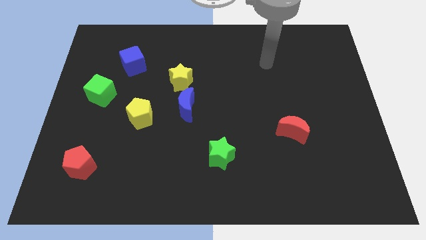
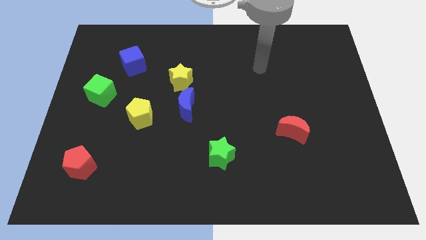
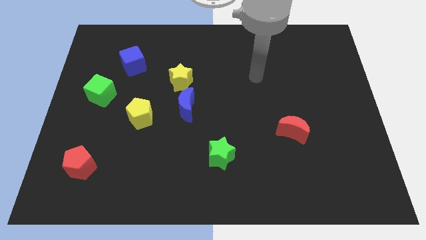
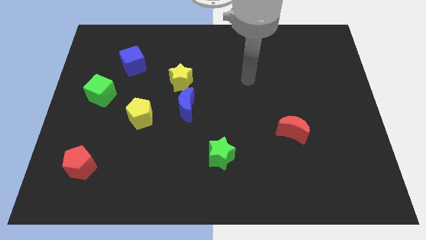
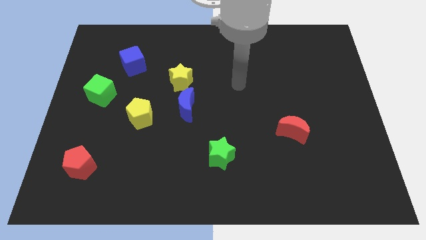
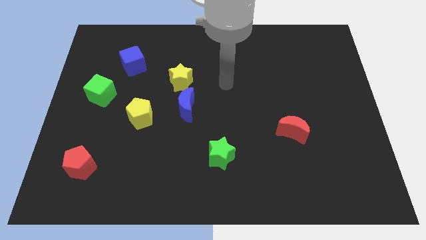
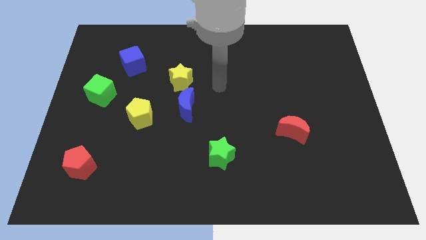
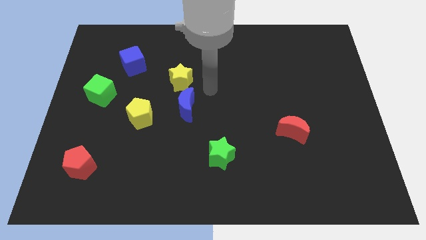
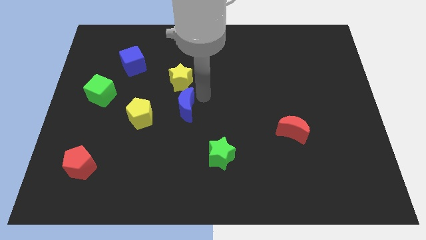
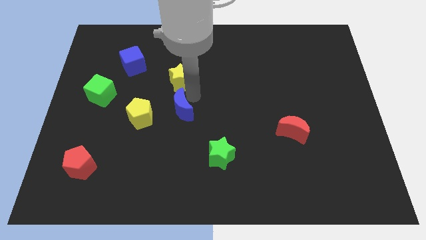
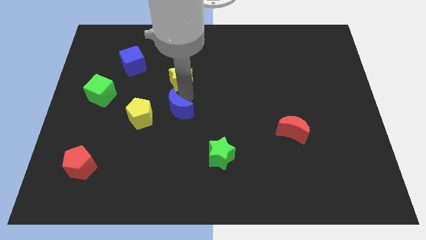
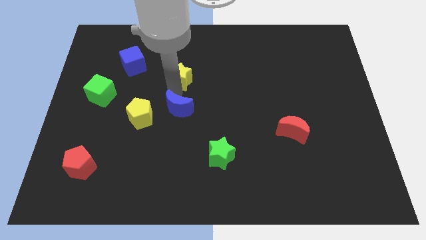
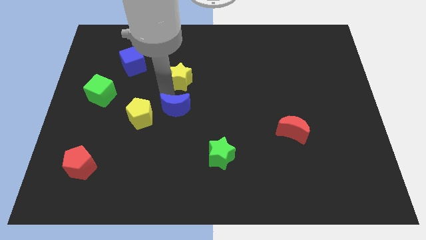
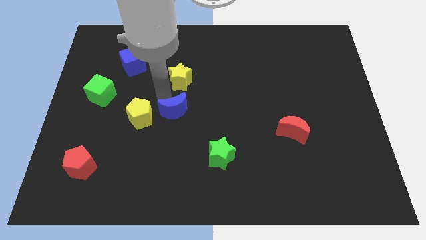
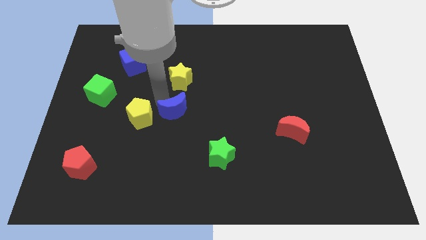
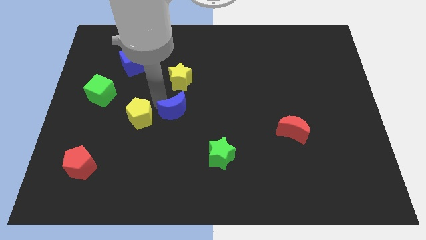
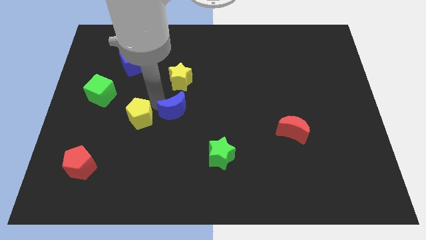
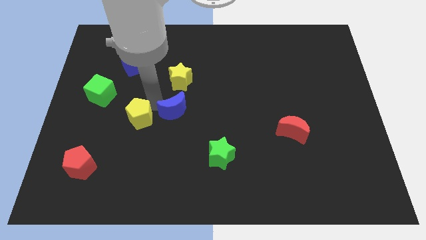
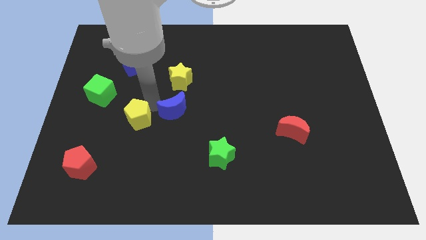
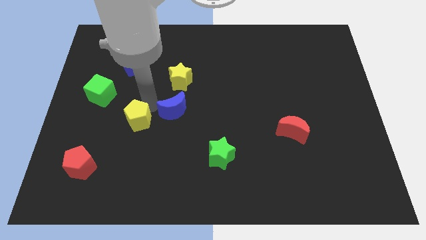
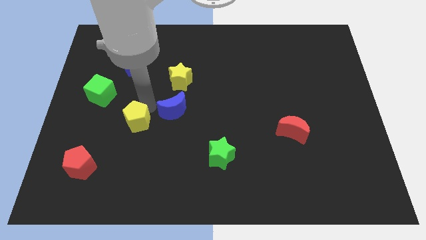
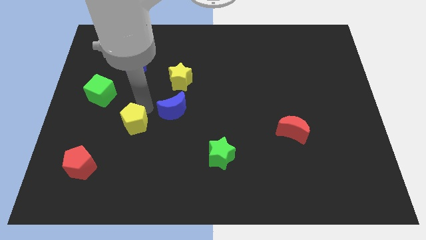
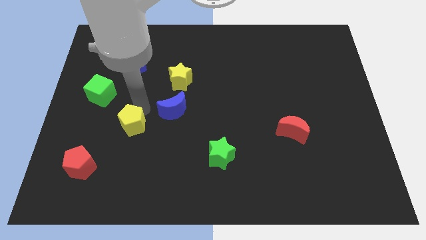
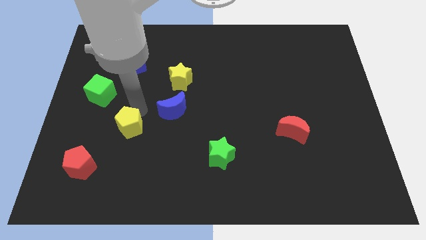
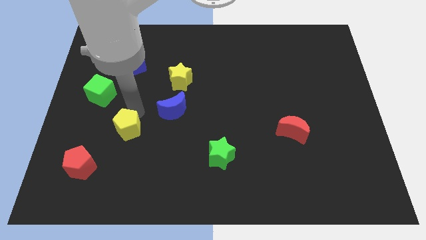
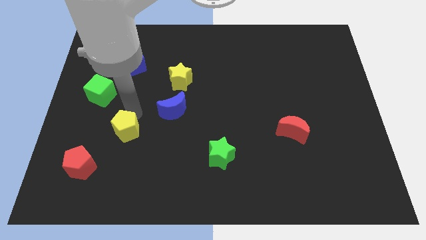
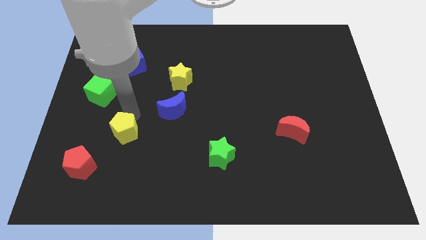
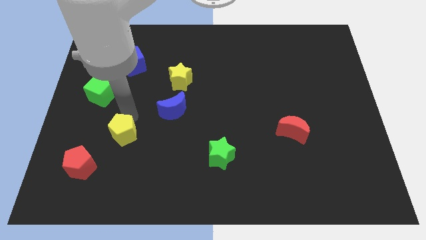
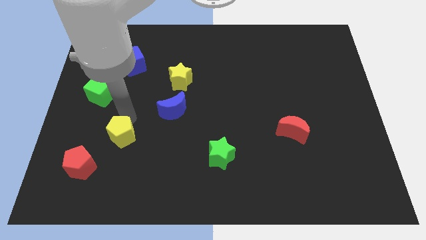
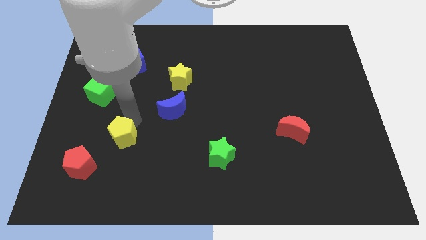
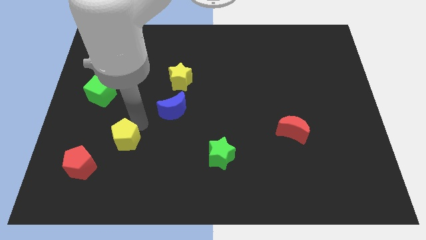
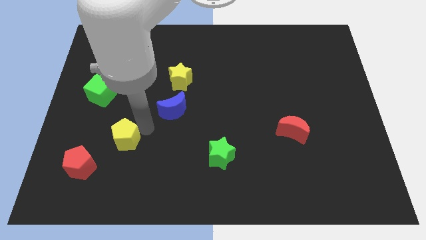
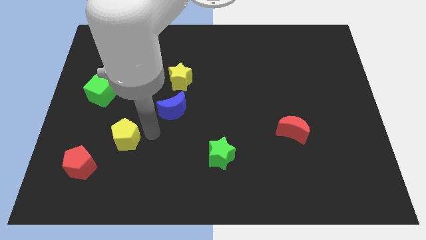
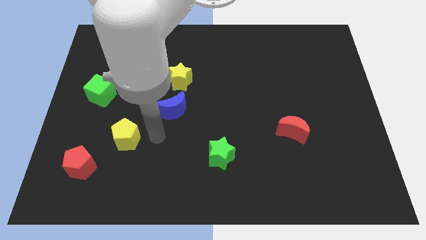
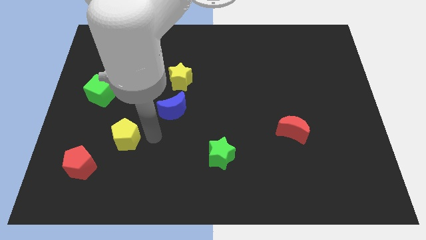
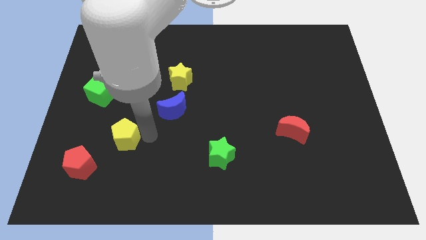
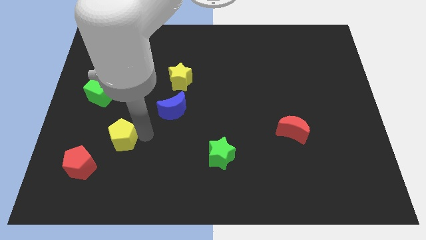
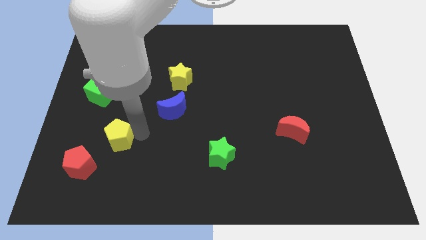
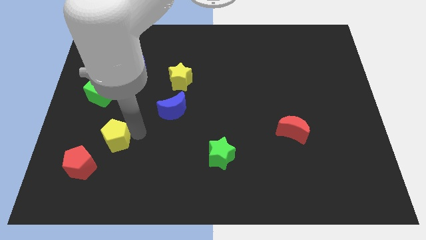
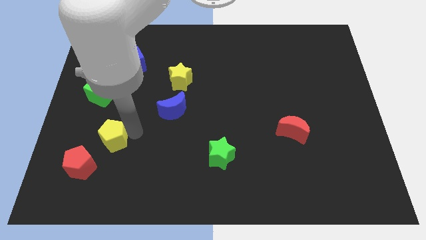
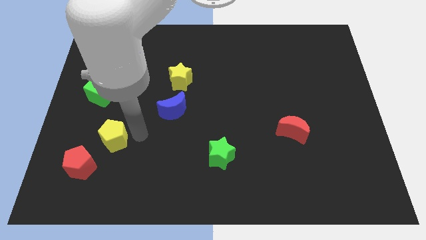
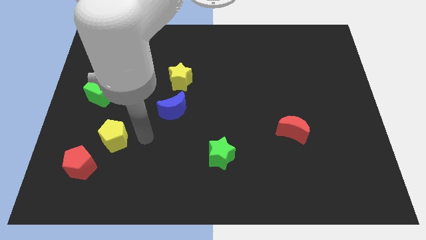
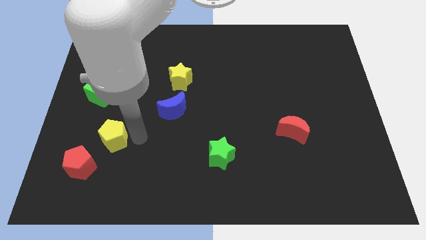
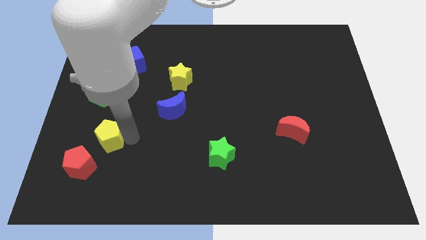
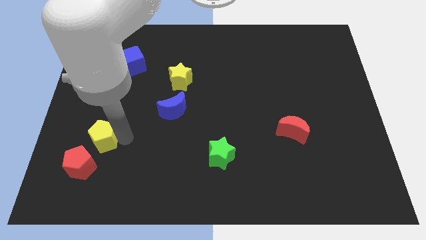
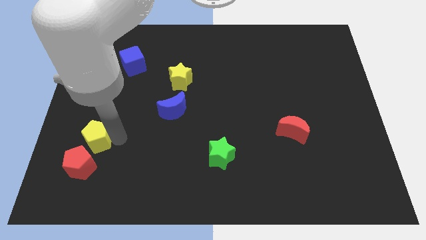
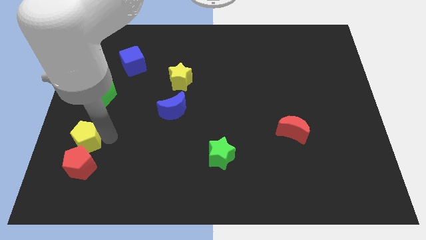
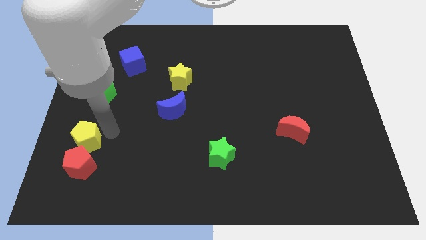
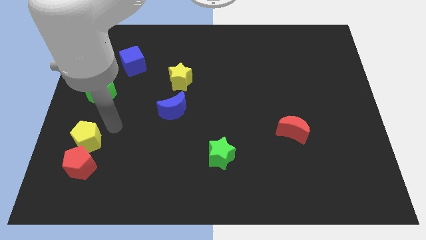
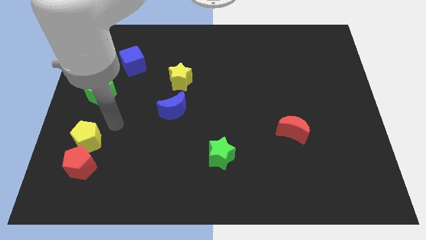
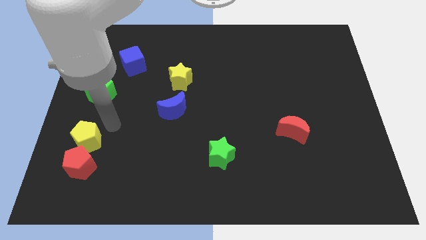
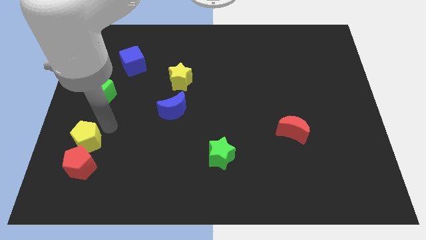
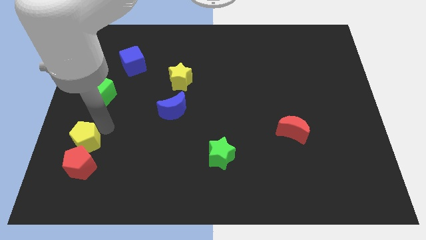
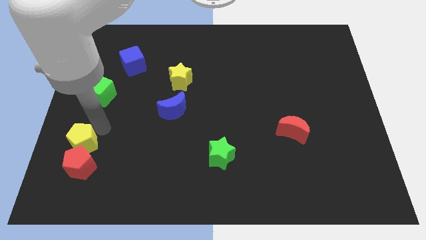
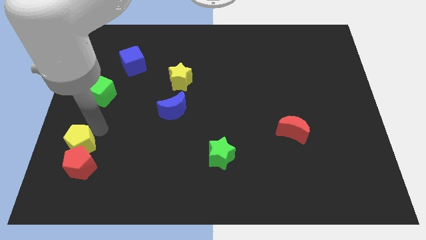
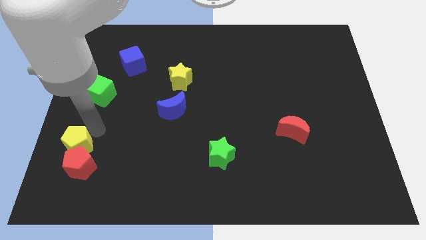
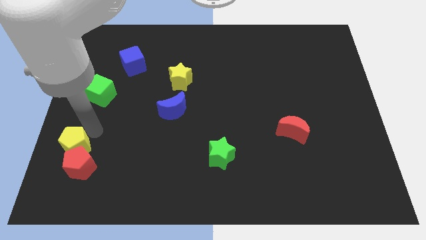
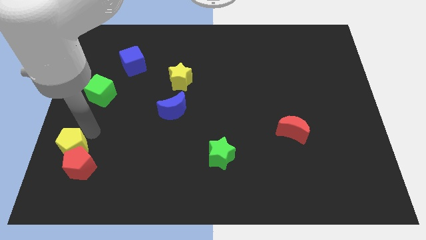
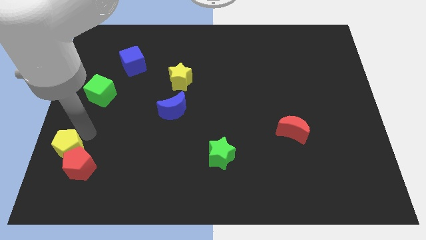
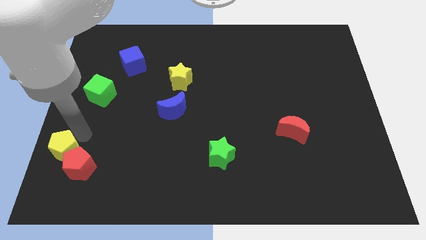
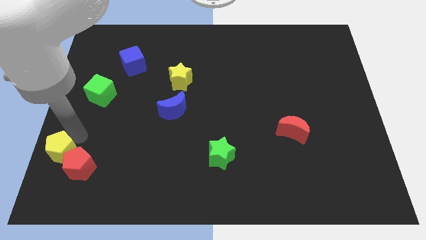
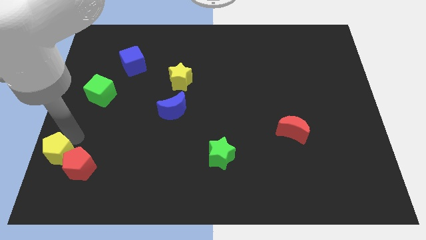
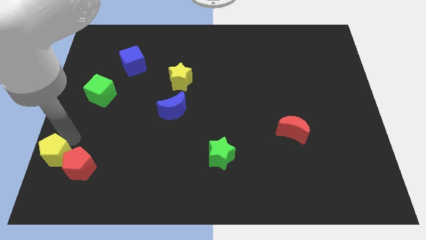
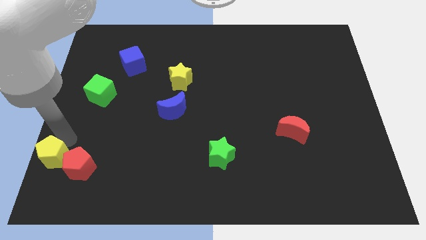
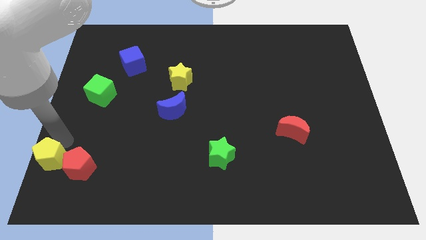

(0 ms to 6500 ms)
move the yellow pentagon to the bottom left
